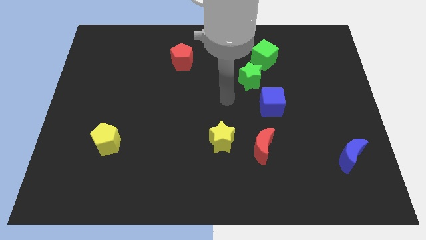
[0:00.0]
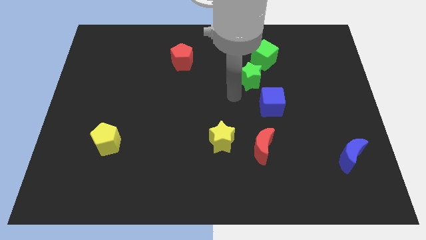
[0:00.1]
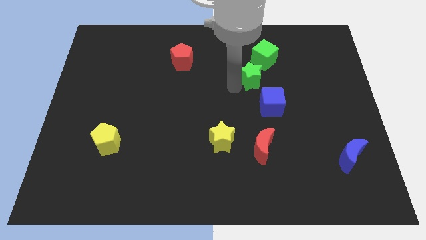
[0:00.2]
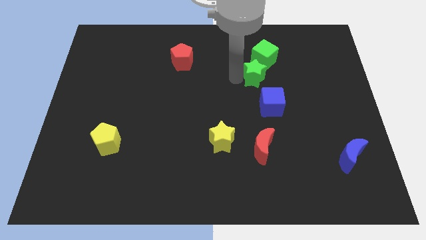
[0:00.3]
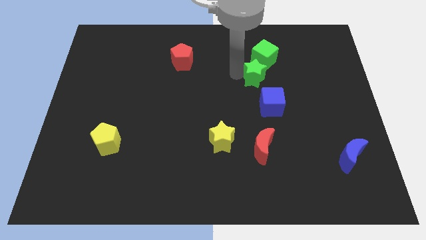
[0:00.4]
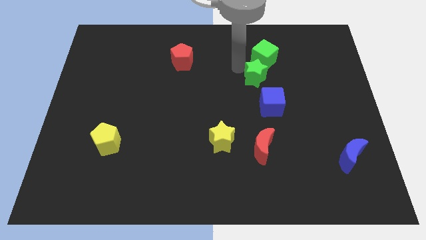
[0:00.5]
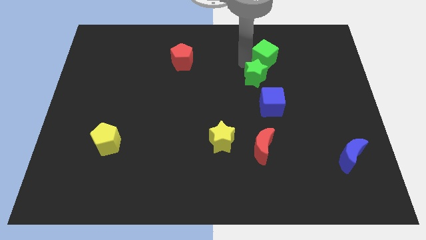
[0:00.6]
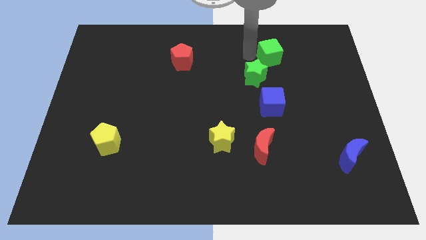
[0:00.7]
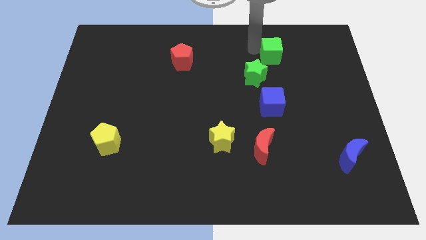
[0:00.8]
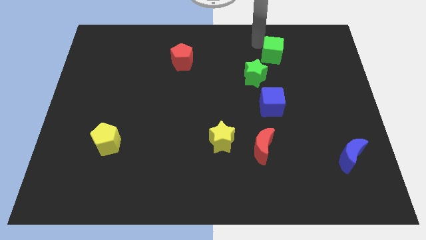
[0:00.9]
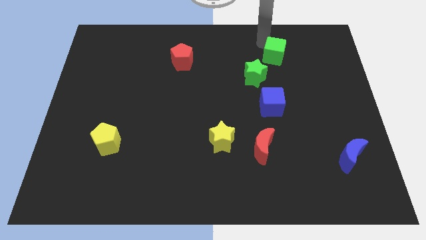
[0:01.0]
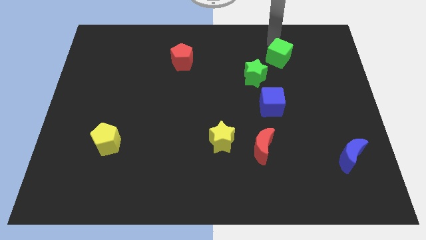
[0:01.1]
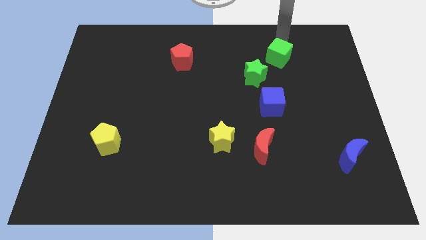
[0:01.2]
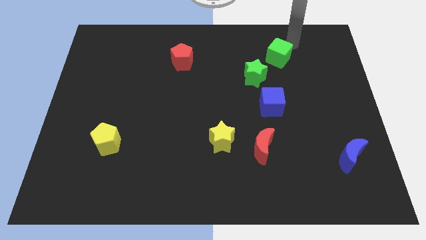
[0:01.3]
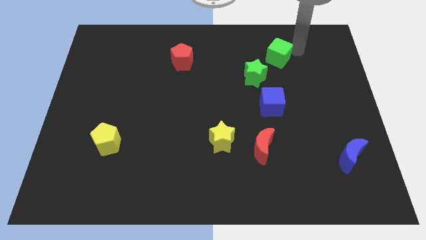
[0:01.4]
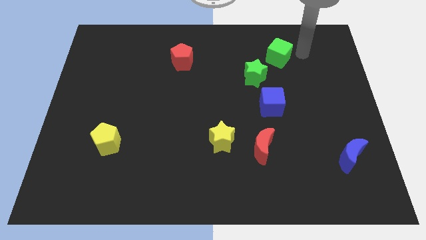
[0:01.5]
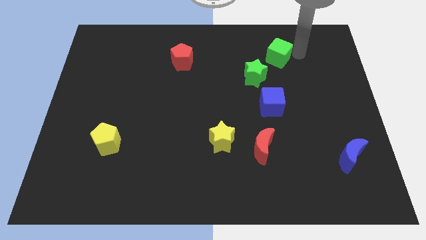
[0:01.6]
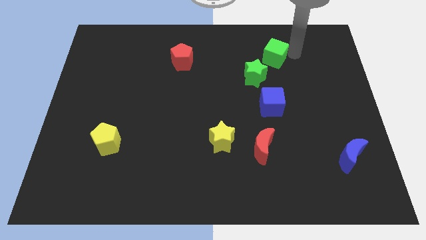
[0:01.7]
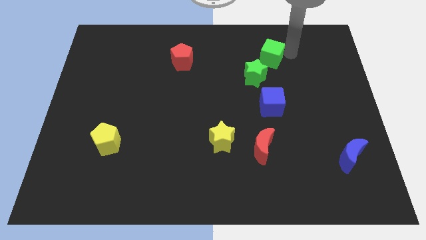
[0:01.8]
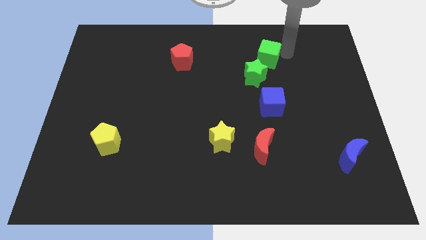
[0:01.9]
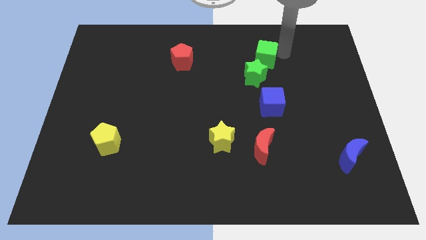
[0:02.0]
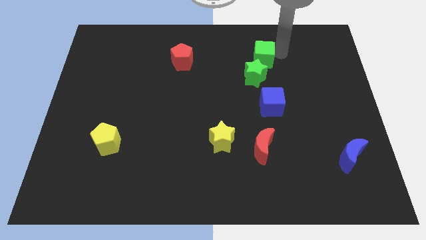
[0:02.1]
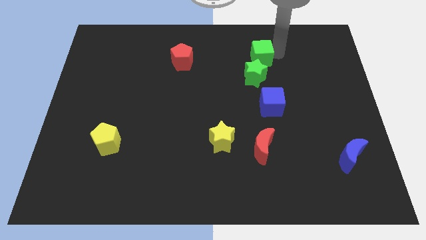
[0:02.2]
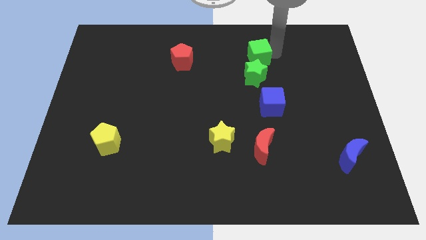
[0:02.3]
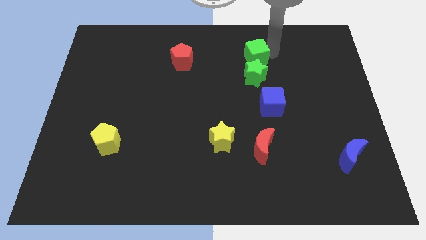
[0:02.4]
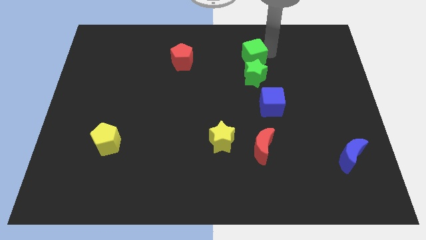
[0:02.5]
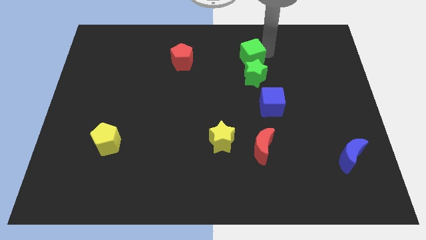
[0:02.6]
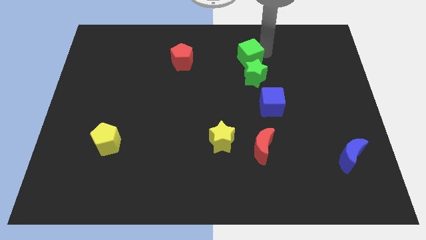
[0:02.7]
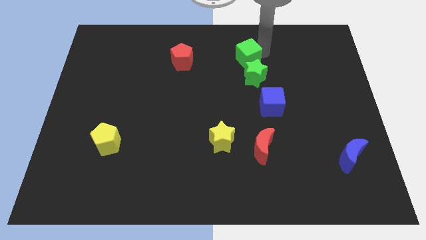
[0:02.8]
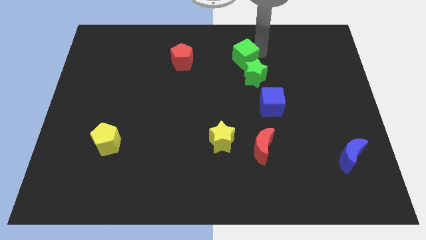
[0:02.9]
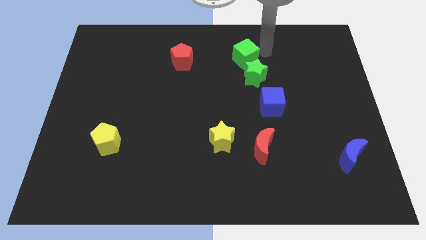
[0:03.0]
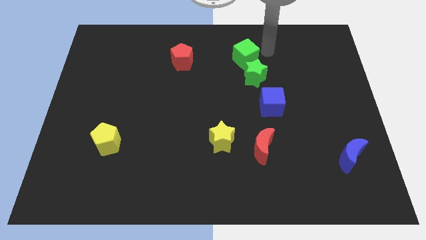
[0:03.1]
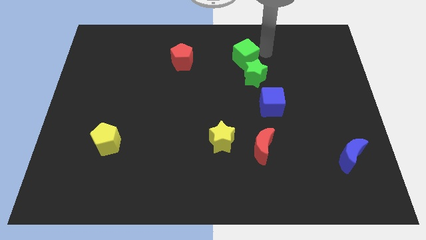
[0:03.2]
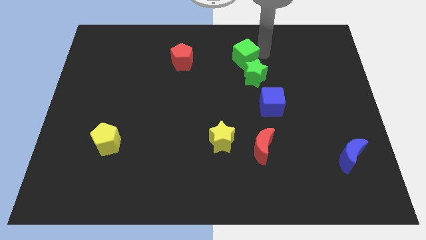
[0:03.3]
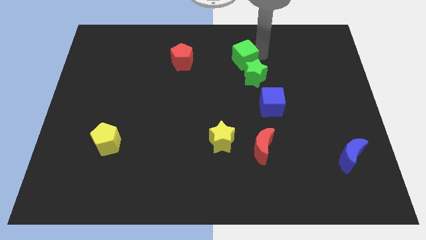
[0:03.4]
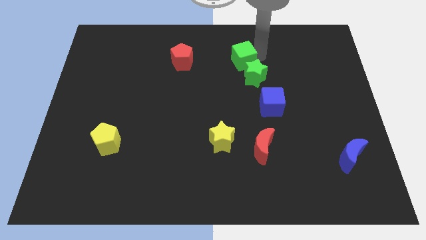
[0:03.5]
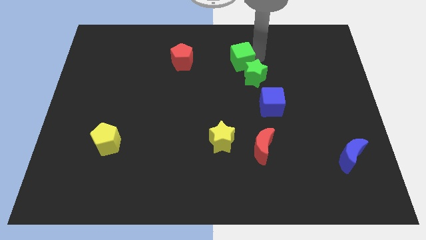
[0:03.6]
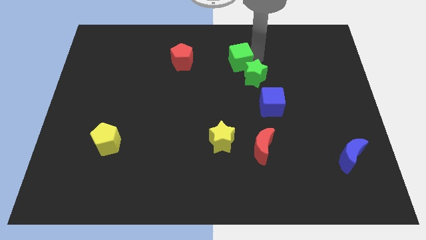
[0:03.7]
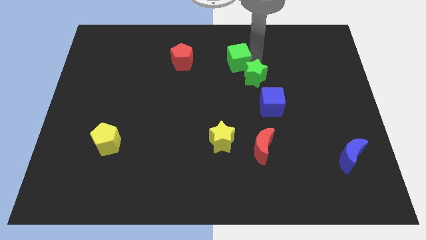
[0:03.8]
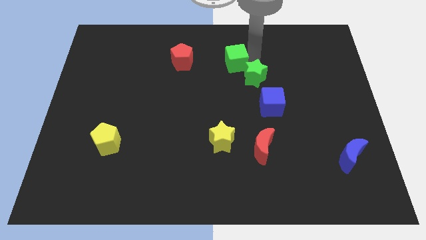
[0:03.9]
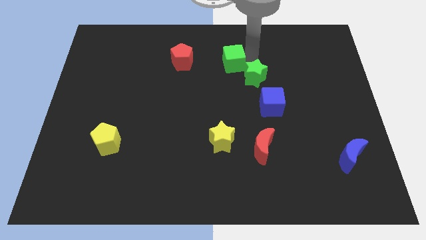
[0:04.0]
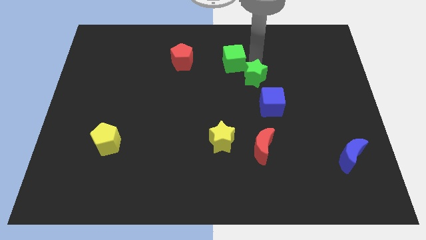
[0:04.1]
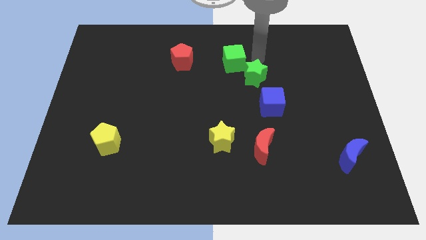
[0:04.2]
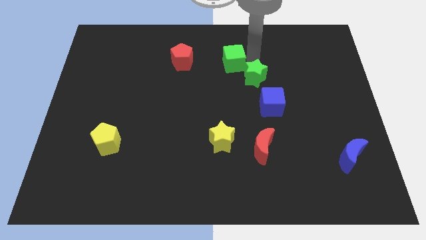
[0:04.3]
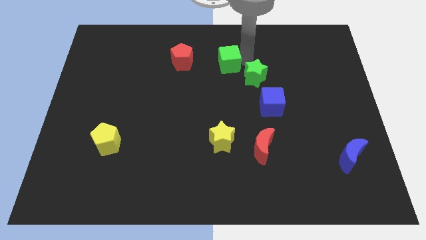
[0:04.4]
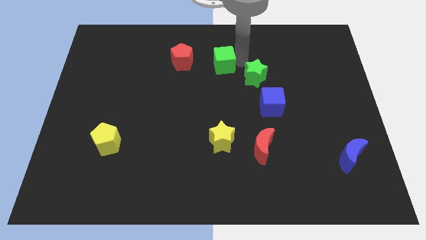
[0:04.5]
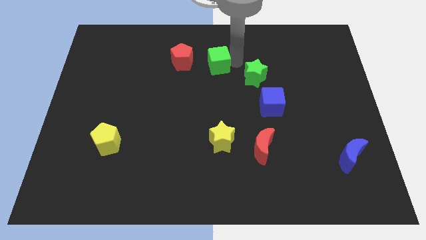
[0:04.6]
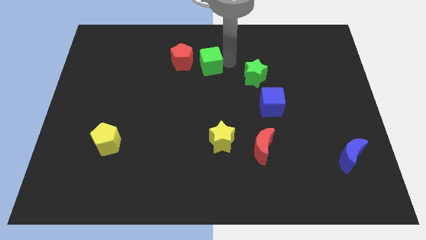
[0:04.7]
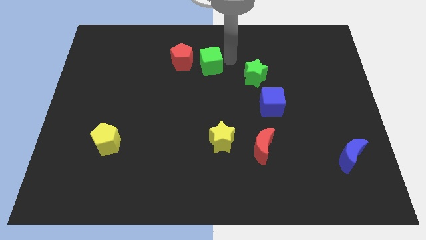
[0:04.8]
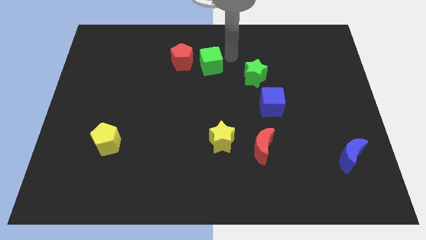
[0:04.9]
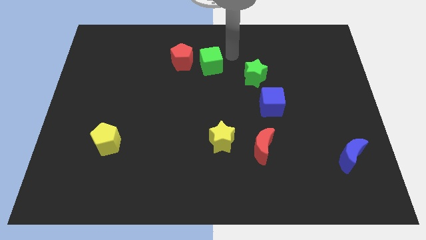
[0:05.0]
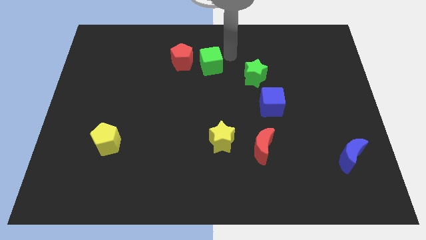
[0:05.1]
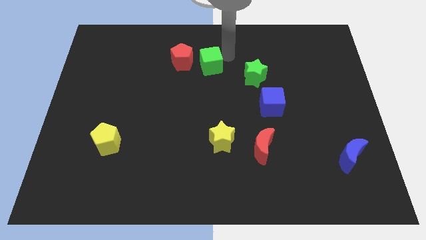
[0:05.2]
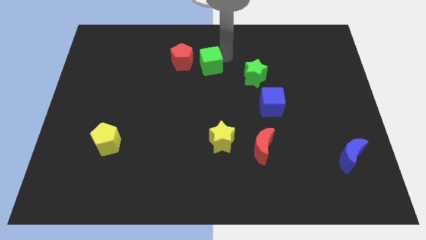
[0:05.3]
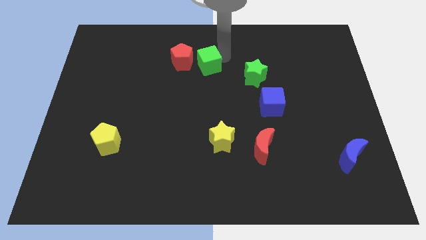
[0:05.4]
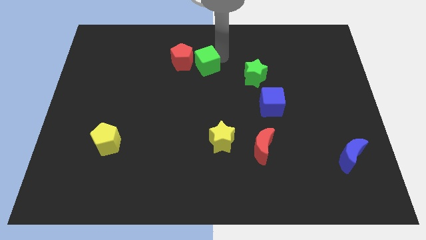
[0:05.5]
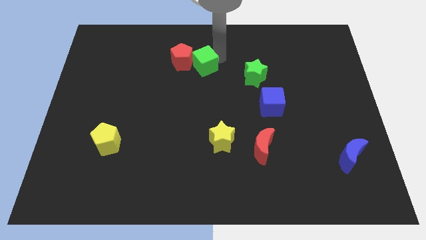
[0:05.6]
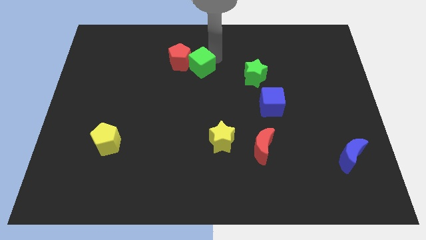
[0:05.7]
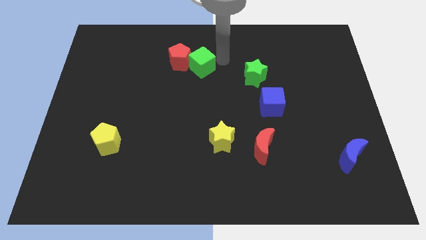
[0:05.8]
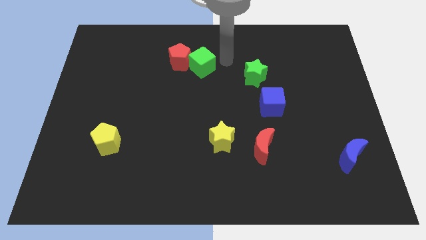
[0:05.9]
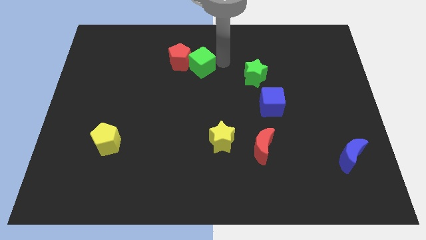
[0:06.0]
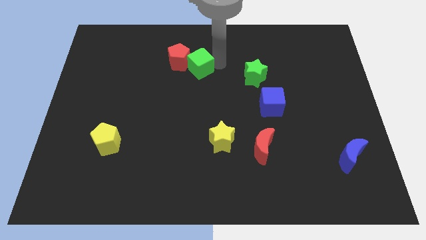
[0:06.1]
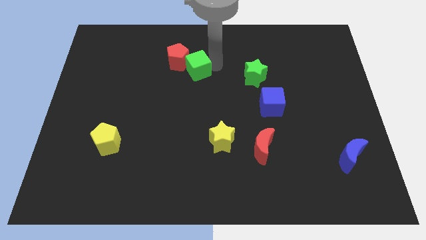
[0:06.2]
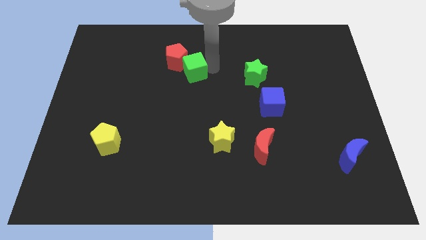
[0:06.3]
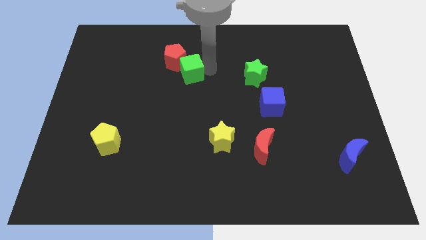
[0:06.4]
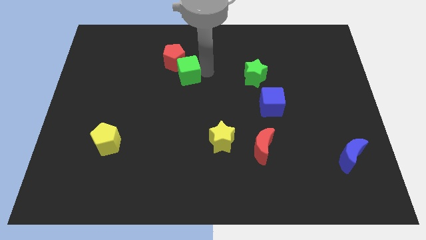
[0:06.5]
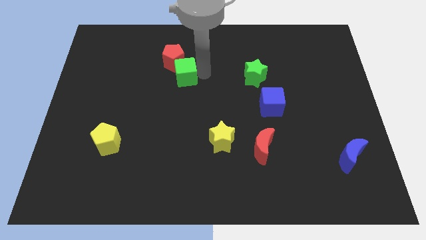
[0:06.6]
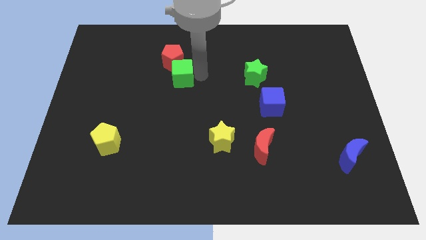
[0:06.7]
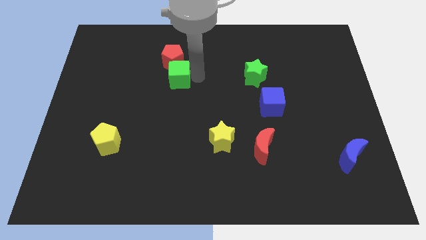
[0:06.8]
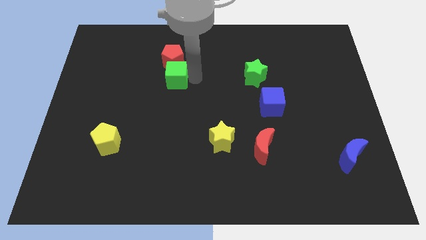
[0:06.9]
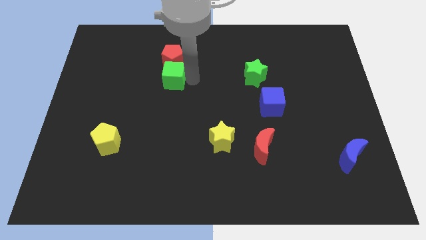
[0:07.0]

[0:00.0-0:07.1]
slide the green cube to the bottom left of the red pentagon

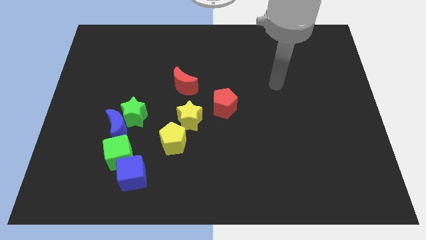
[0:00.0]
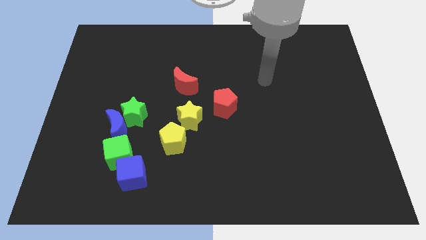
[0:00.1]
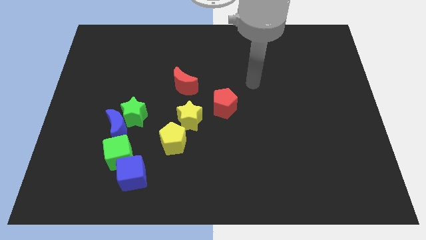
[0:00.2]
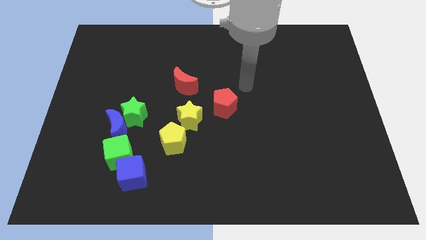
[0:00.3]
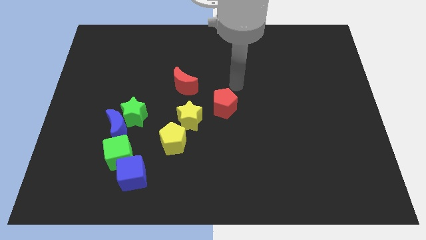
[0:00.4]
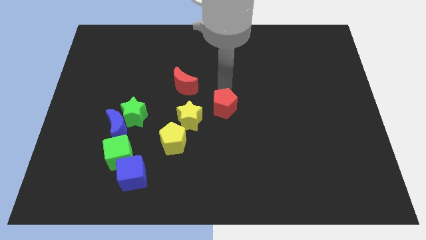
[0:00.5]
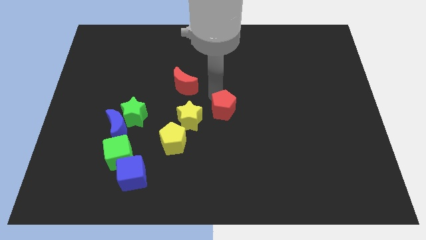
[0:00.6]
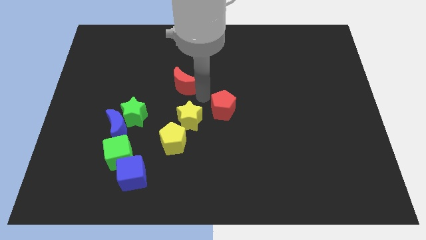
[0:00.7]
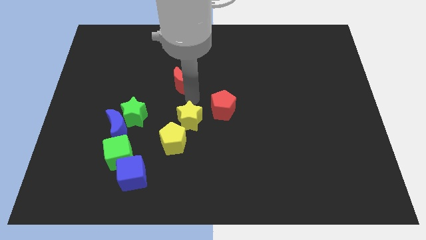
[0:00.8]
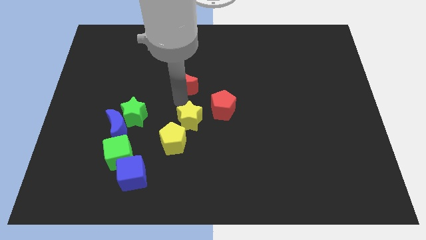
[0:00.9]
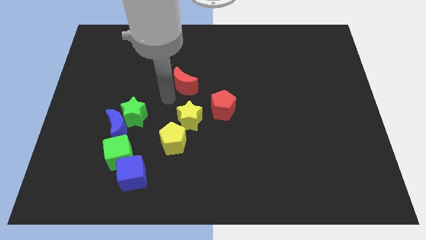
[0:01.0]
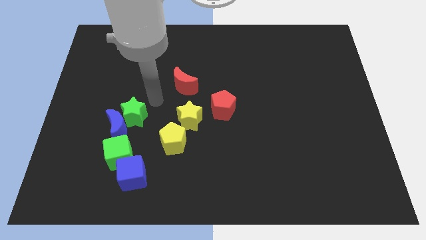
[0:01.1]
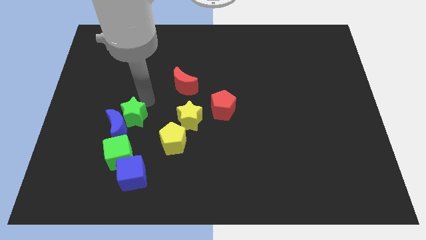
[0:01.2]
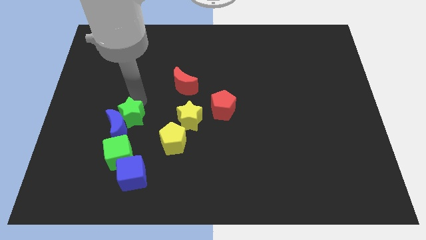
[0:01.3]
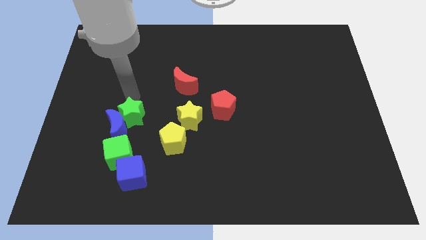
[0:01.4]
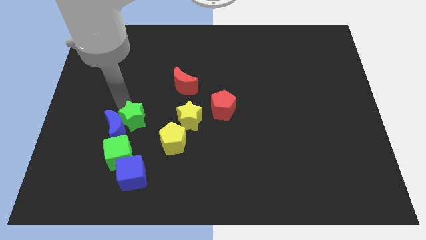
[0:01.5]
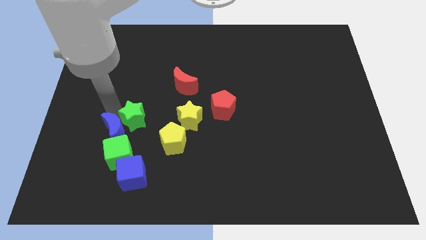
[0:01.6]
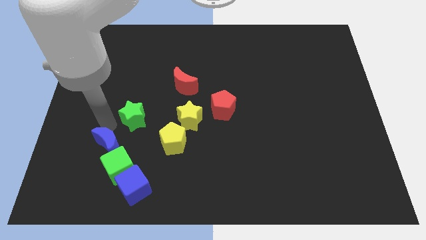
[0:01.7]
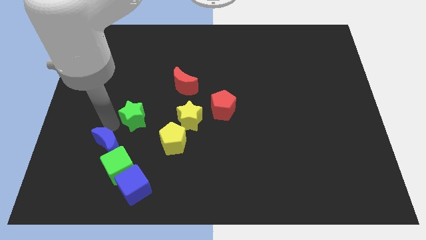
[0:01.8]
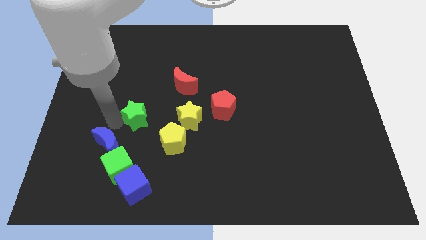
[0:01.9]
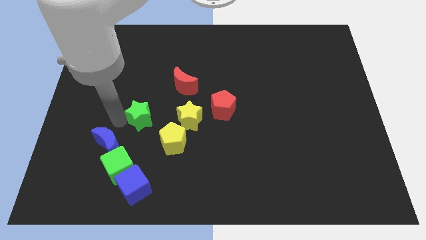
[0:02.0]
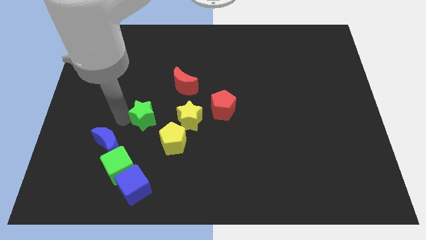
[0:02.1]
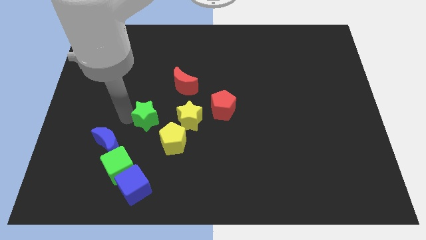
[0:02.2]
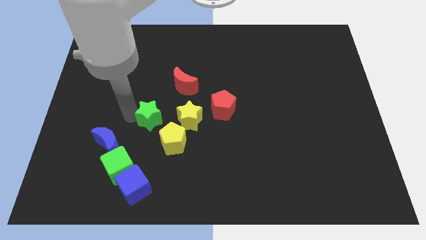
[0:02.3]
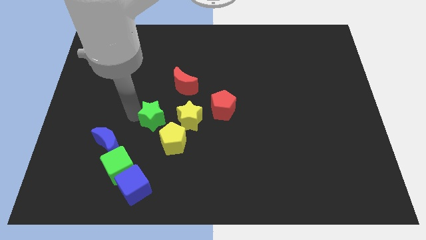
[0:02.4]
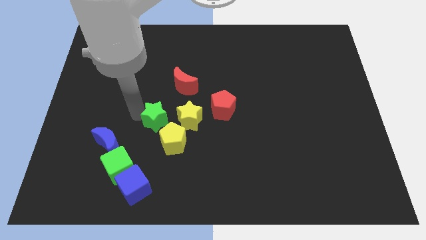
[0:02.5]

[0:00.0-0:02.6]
push the green star to the top of the yellow pentagon
